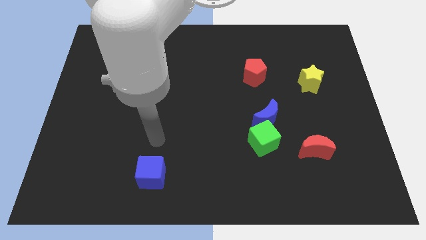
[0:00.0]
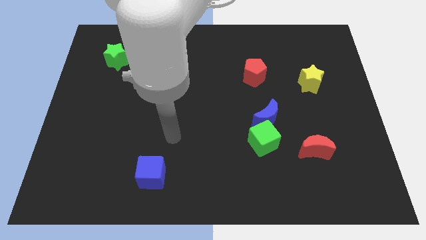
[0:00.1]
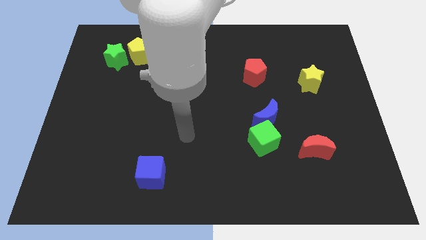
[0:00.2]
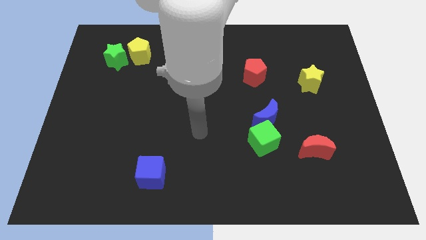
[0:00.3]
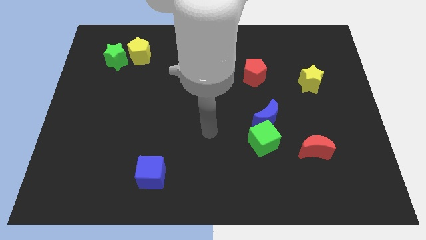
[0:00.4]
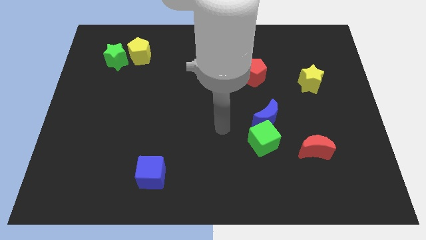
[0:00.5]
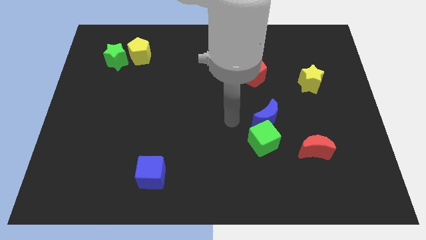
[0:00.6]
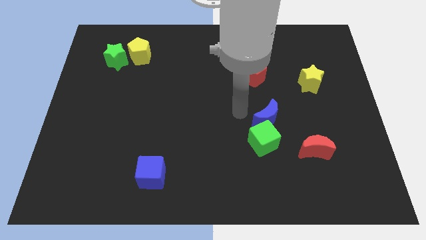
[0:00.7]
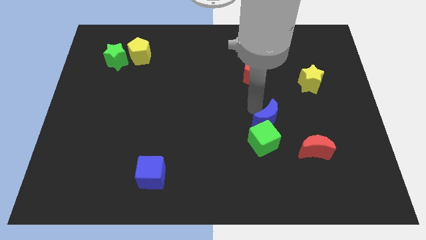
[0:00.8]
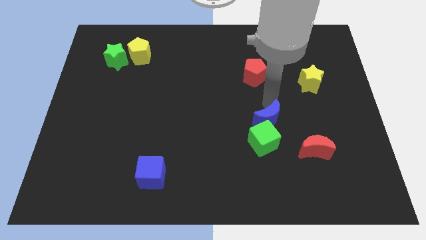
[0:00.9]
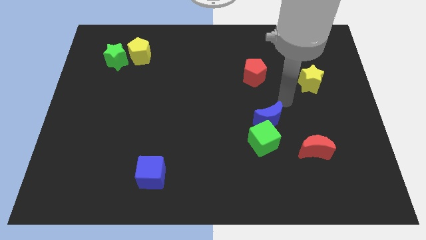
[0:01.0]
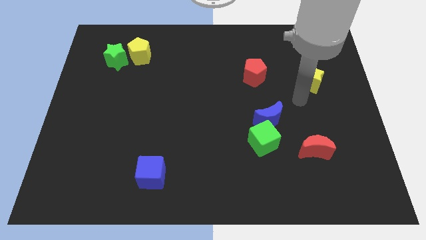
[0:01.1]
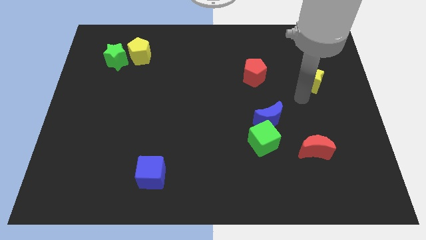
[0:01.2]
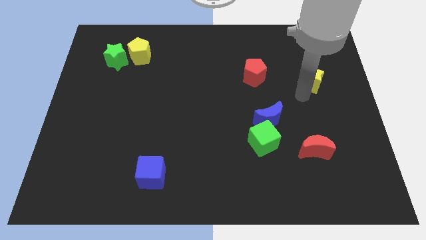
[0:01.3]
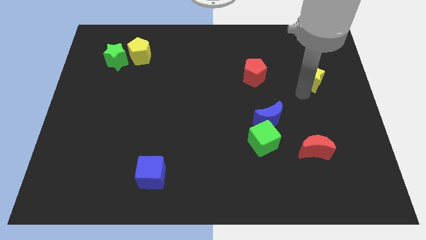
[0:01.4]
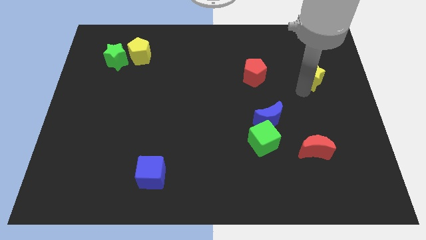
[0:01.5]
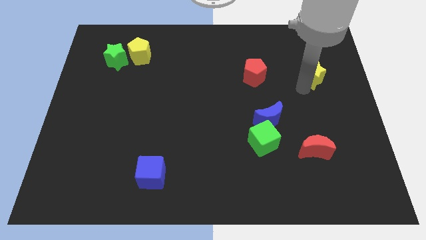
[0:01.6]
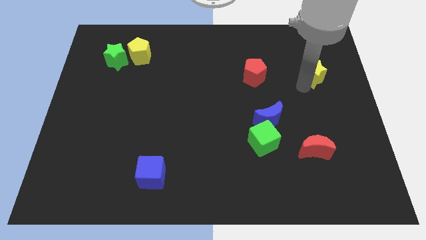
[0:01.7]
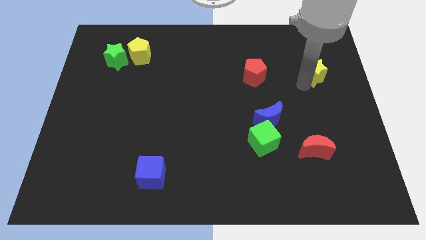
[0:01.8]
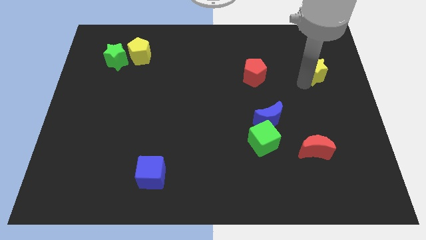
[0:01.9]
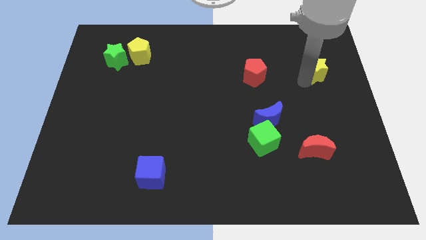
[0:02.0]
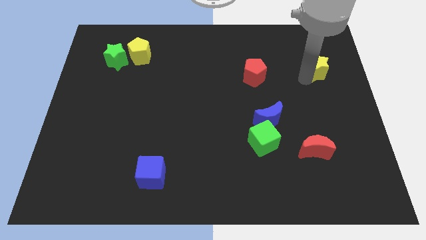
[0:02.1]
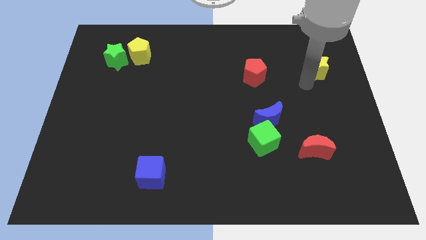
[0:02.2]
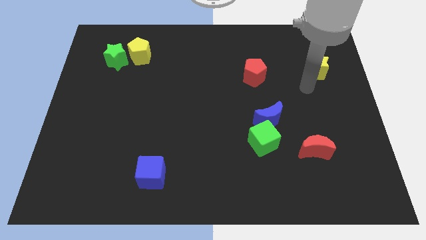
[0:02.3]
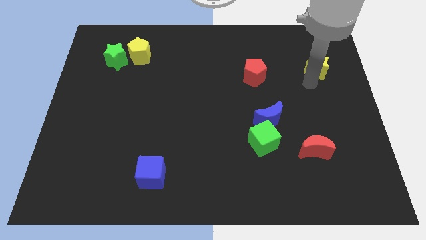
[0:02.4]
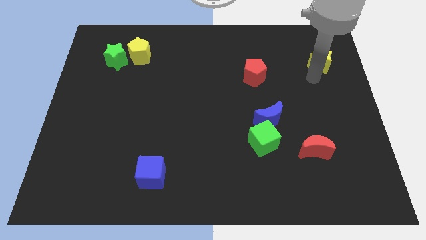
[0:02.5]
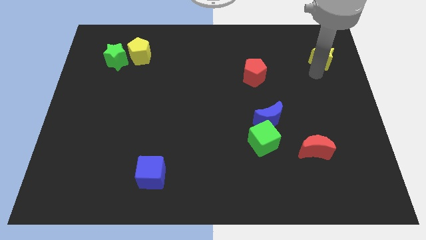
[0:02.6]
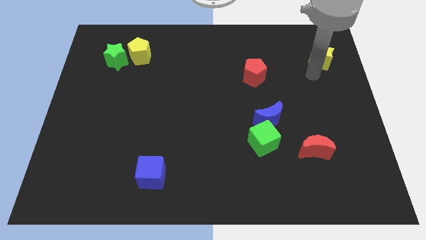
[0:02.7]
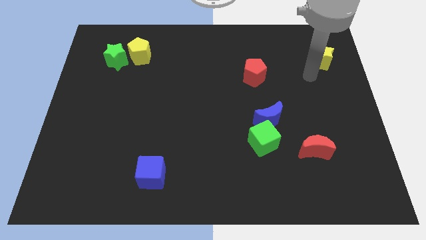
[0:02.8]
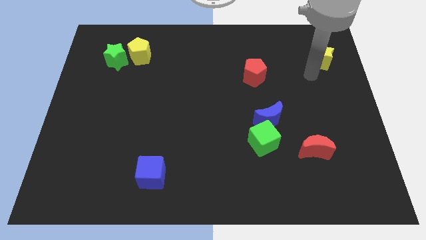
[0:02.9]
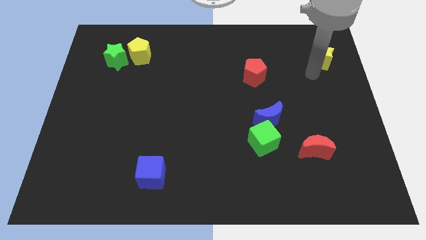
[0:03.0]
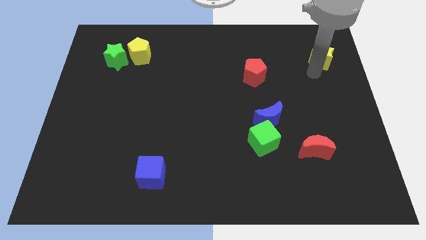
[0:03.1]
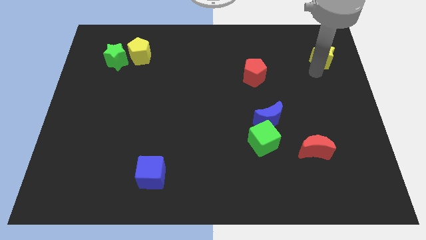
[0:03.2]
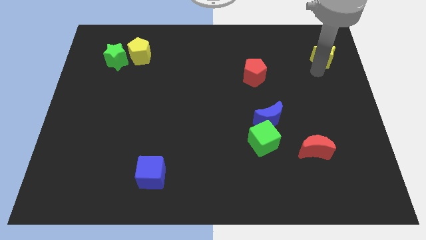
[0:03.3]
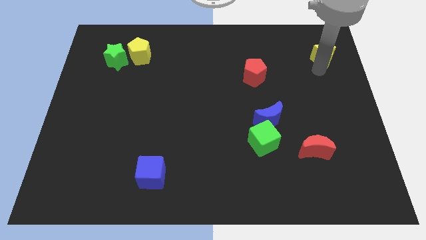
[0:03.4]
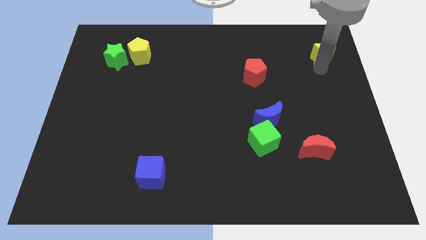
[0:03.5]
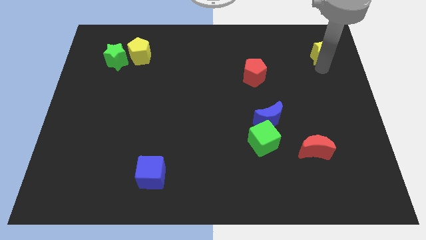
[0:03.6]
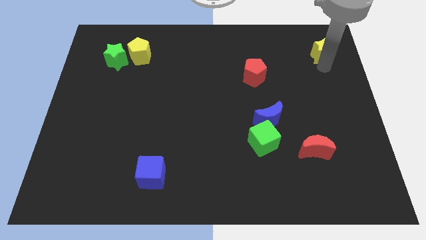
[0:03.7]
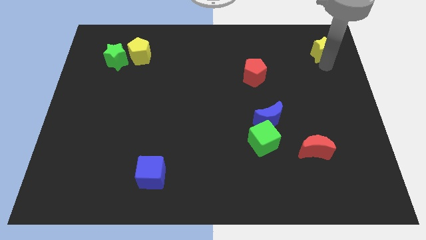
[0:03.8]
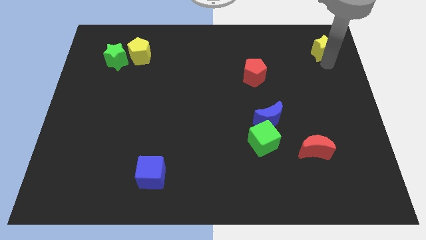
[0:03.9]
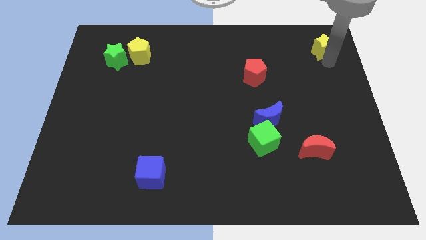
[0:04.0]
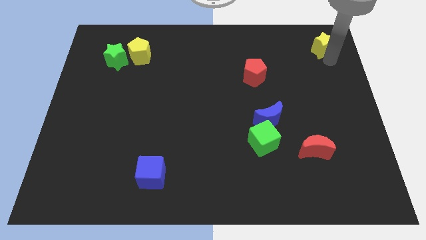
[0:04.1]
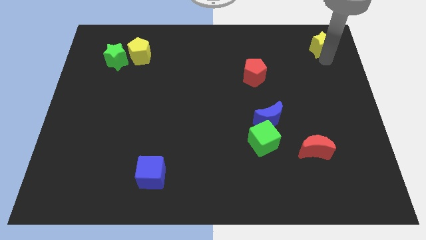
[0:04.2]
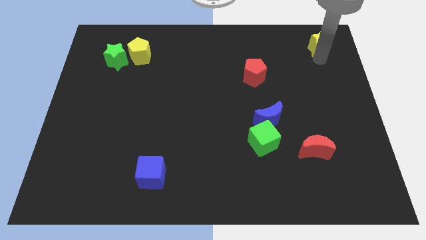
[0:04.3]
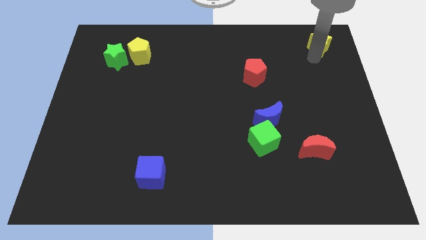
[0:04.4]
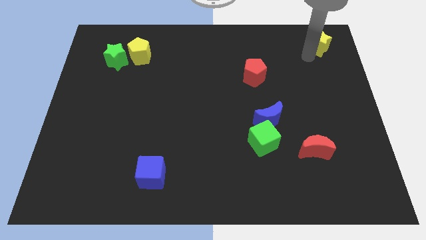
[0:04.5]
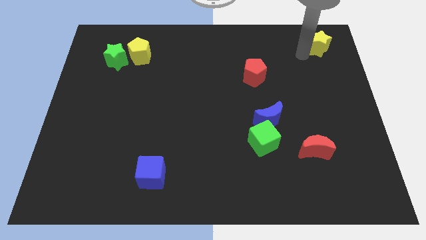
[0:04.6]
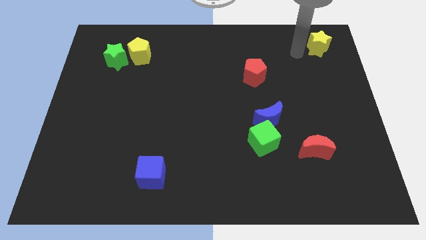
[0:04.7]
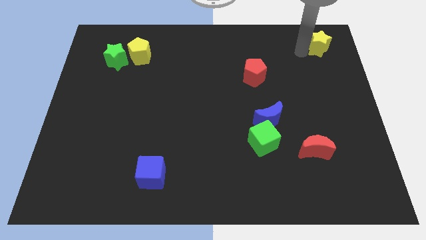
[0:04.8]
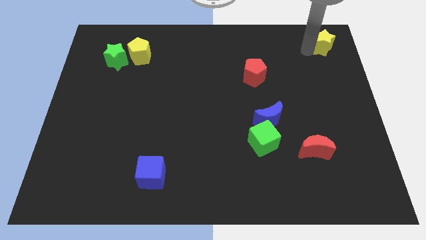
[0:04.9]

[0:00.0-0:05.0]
put the yellow star to the upper right corner

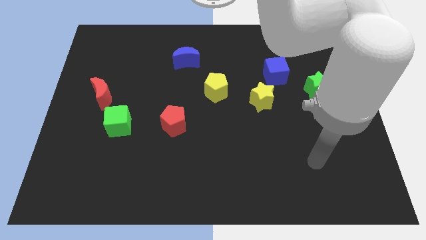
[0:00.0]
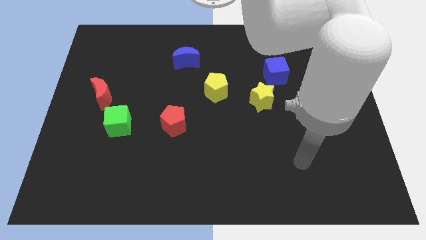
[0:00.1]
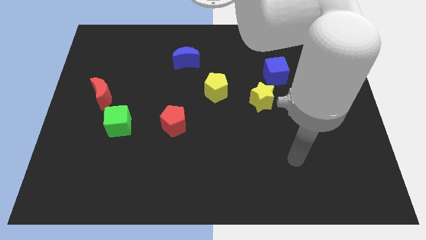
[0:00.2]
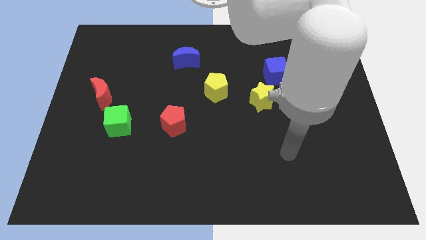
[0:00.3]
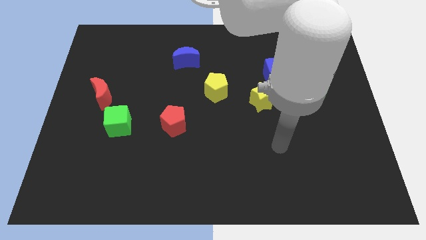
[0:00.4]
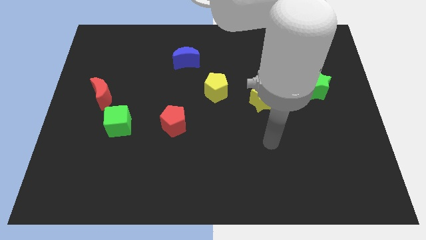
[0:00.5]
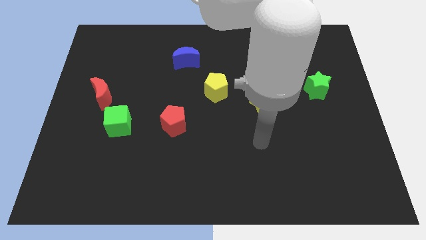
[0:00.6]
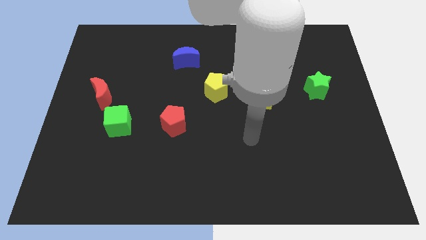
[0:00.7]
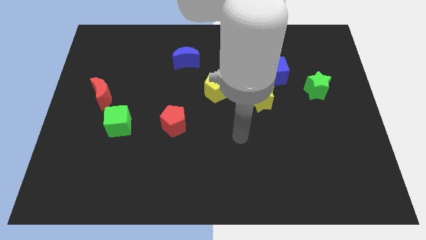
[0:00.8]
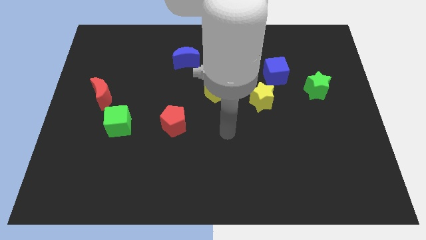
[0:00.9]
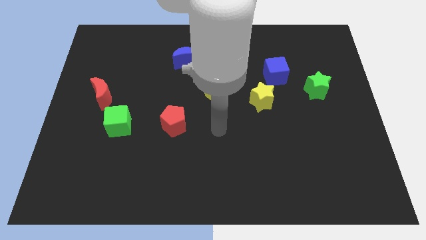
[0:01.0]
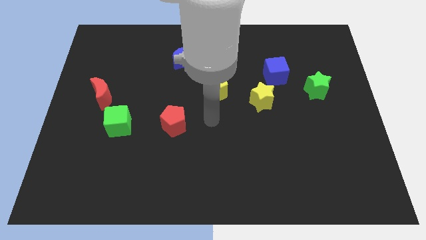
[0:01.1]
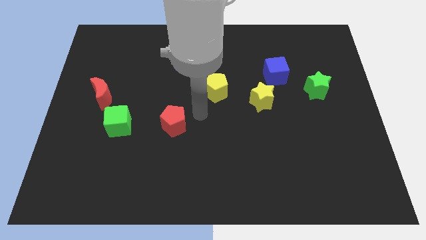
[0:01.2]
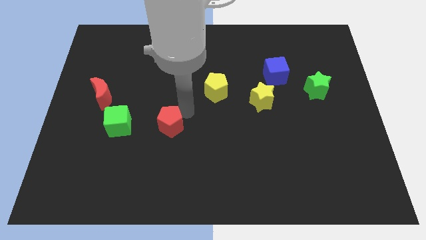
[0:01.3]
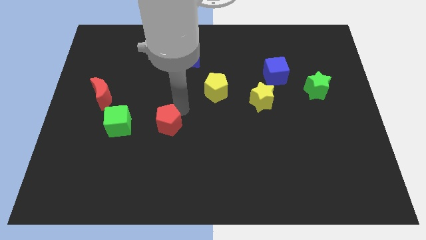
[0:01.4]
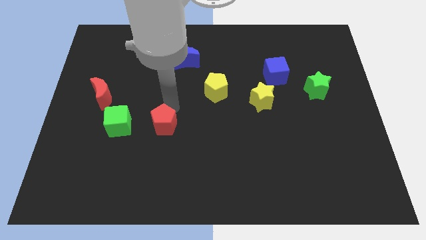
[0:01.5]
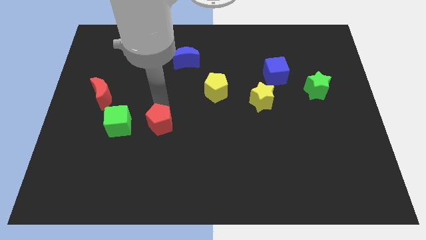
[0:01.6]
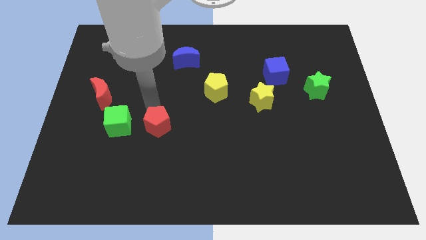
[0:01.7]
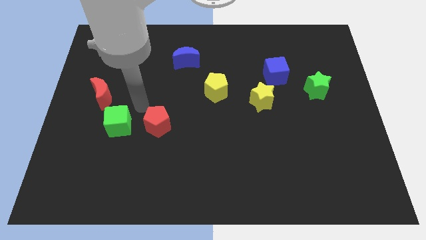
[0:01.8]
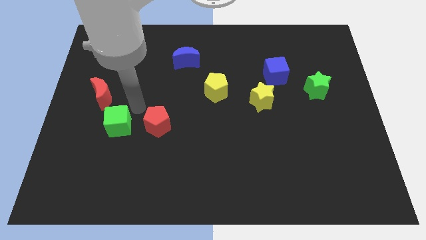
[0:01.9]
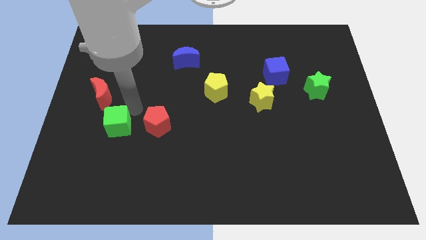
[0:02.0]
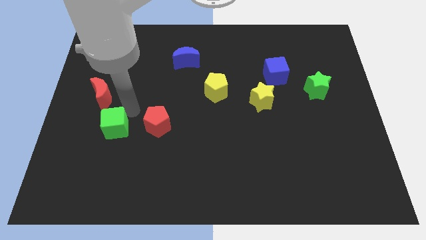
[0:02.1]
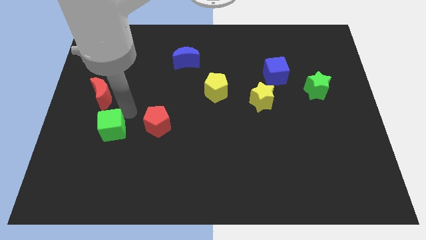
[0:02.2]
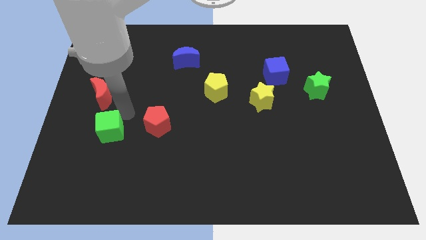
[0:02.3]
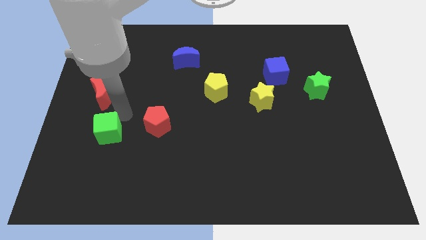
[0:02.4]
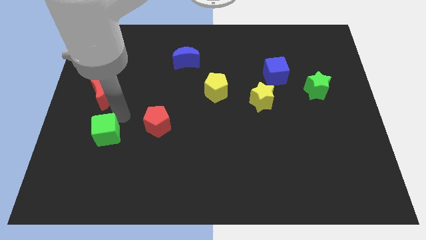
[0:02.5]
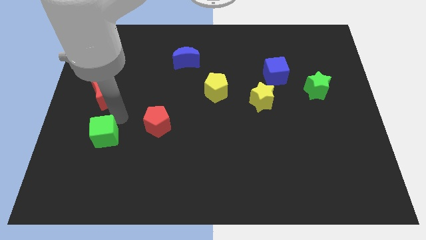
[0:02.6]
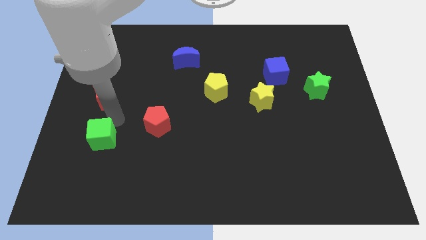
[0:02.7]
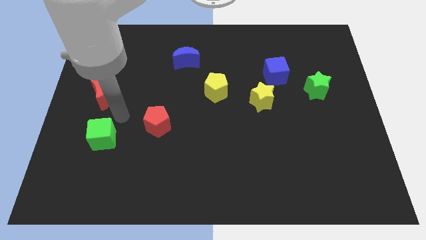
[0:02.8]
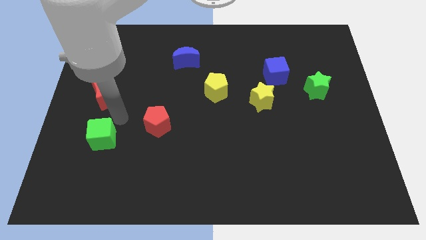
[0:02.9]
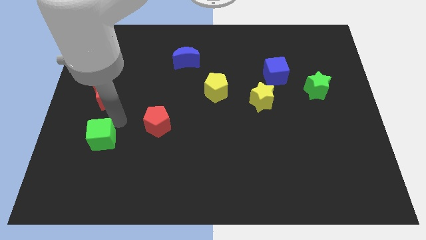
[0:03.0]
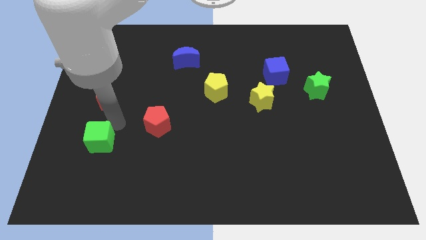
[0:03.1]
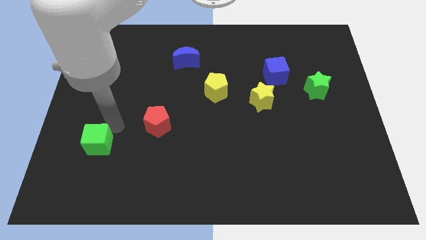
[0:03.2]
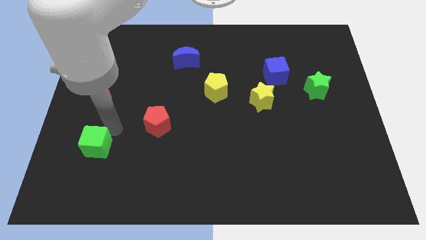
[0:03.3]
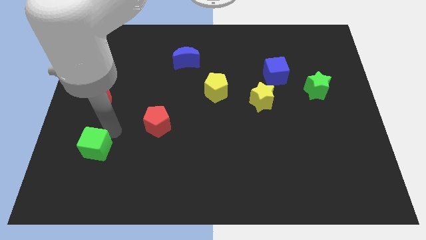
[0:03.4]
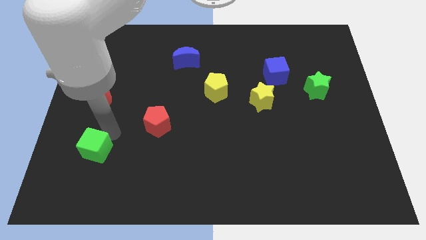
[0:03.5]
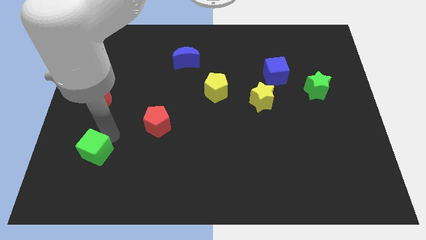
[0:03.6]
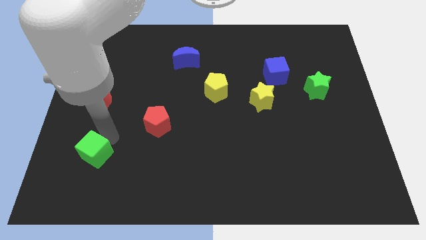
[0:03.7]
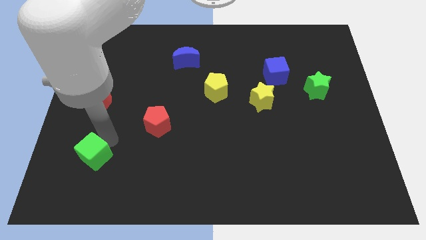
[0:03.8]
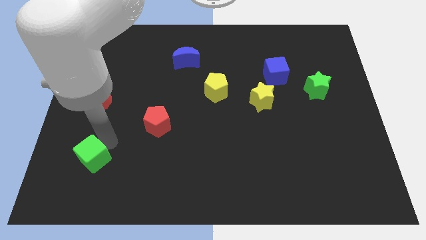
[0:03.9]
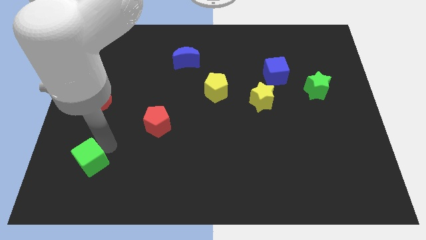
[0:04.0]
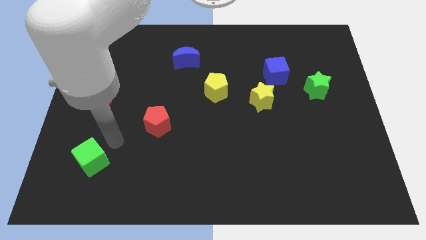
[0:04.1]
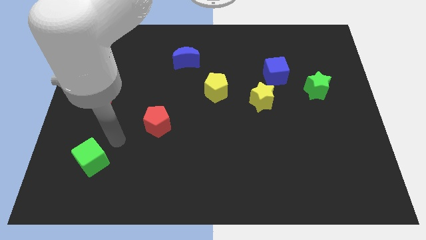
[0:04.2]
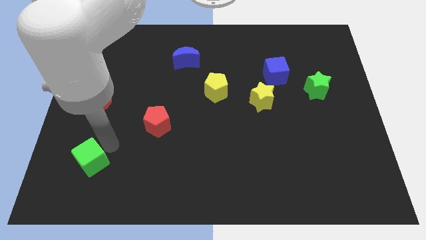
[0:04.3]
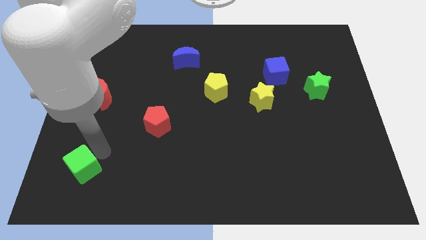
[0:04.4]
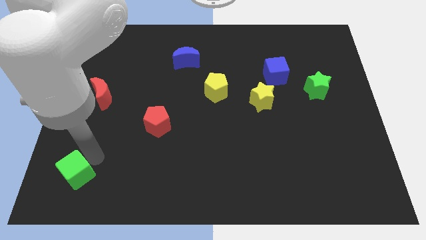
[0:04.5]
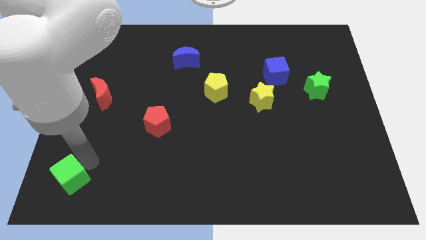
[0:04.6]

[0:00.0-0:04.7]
slide the green cube to the lower left corner
